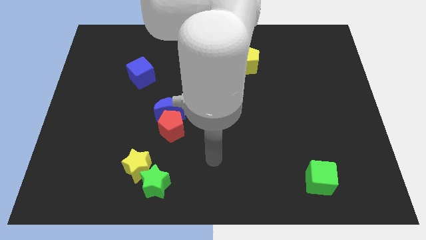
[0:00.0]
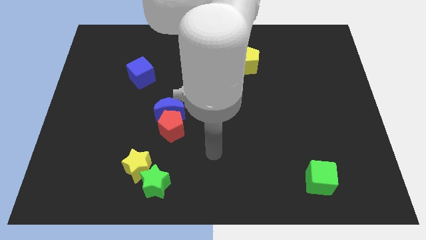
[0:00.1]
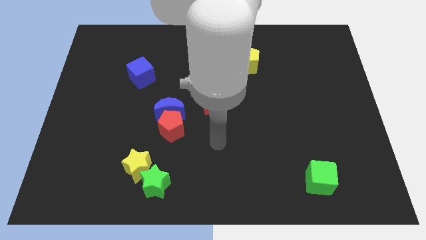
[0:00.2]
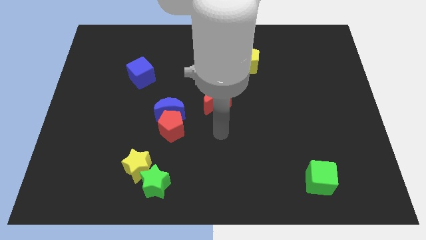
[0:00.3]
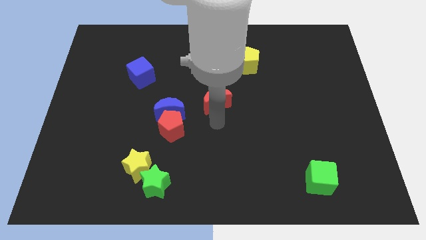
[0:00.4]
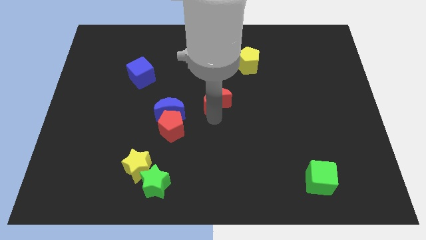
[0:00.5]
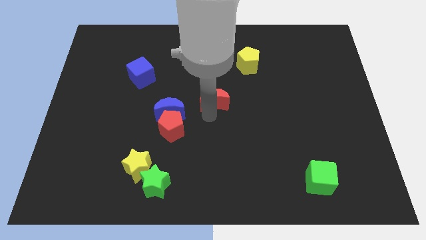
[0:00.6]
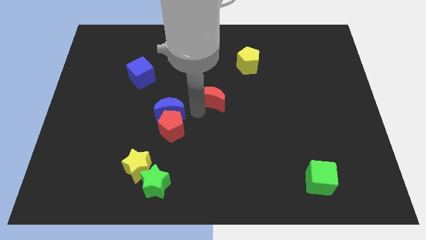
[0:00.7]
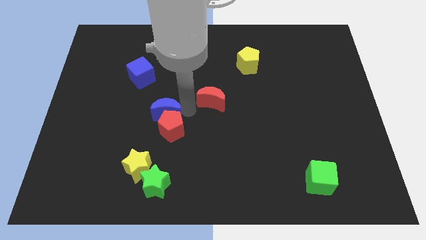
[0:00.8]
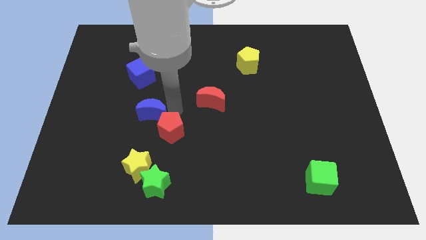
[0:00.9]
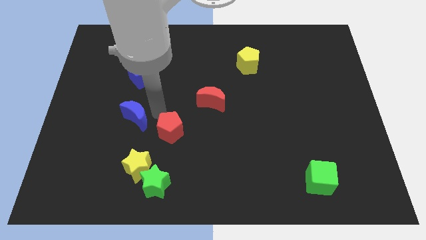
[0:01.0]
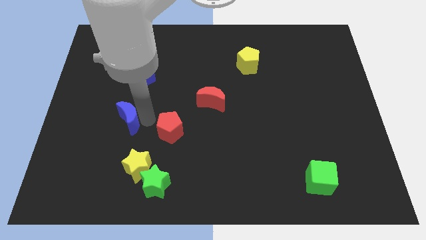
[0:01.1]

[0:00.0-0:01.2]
separate the red pentagon from the blue moon

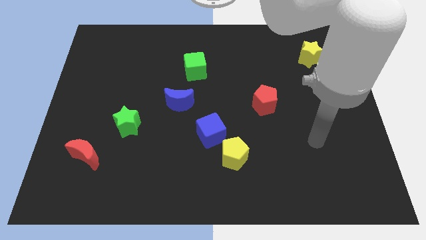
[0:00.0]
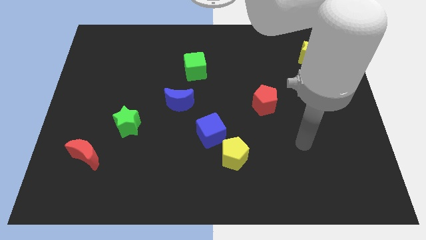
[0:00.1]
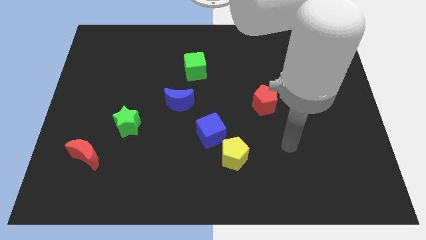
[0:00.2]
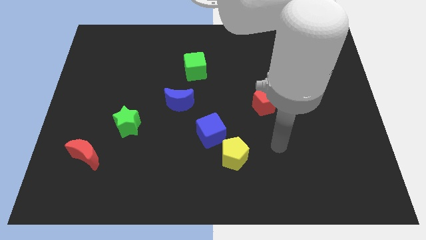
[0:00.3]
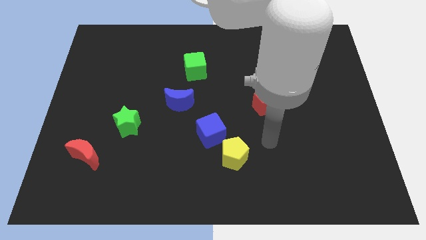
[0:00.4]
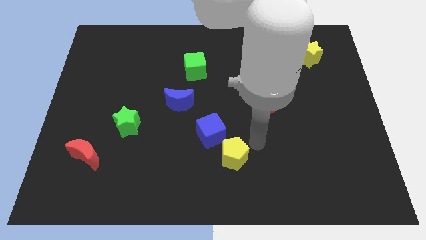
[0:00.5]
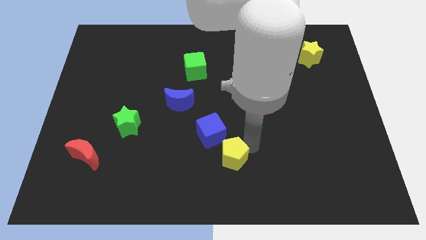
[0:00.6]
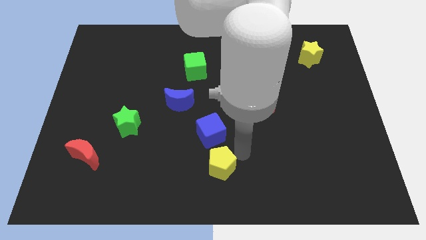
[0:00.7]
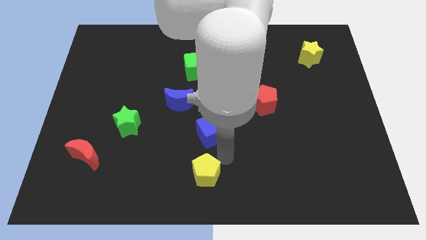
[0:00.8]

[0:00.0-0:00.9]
pull the blue cube apart from the yellow pentagon

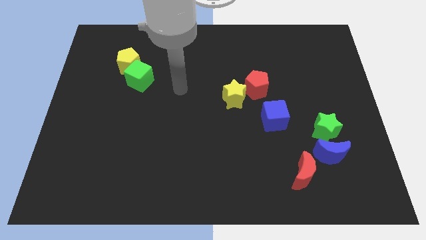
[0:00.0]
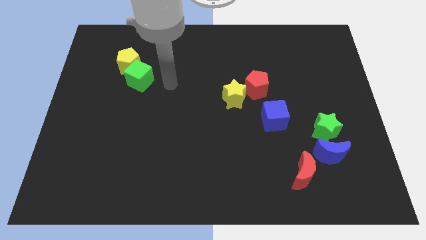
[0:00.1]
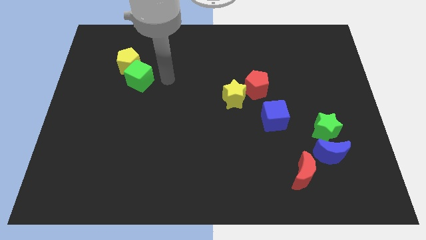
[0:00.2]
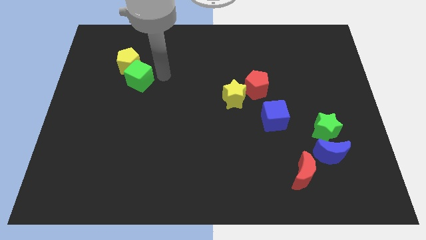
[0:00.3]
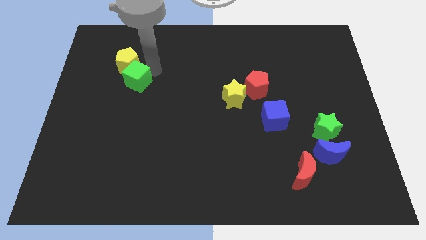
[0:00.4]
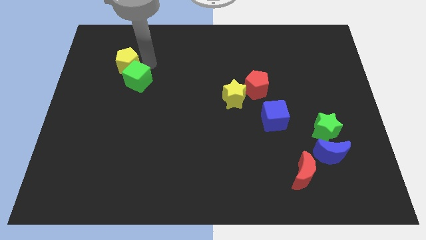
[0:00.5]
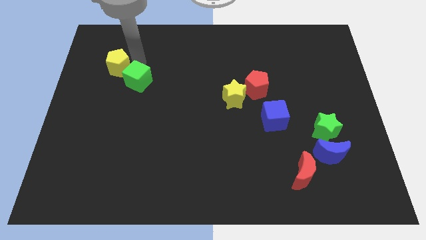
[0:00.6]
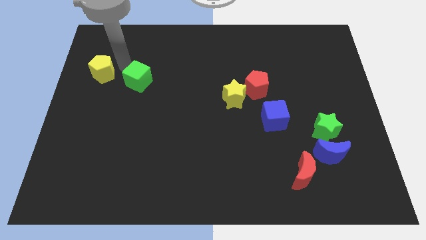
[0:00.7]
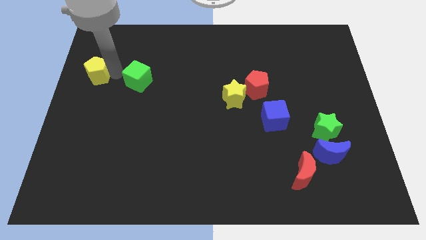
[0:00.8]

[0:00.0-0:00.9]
separate the green cube from the yellow pentagon

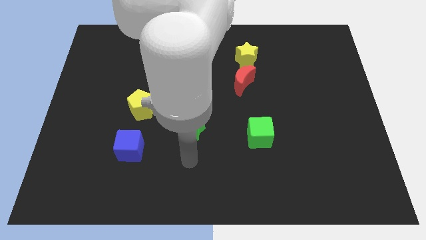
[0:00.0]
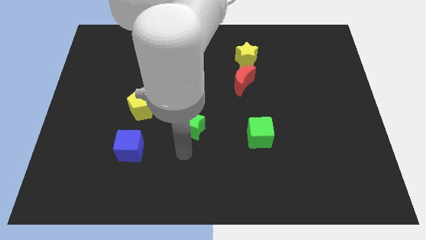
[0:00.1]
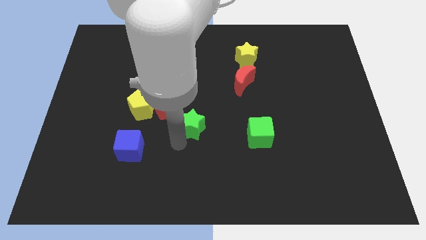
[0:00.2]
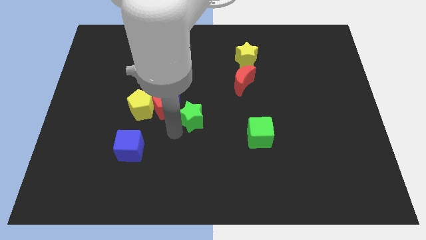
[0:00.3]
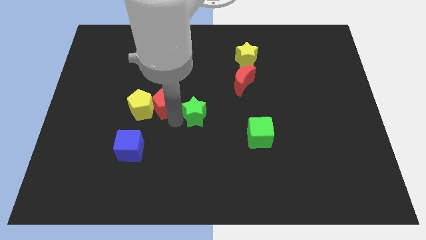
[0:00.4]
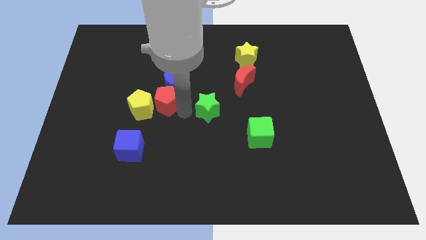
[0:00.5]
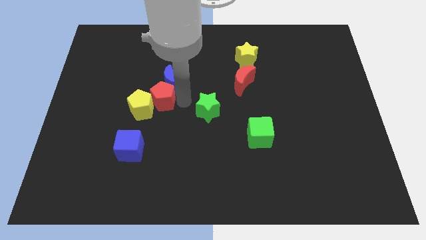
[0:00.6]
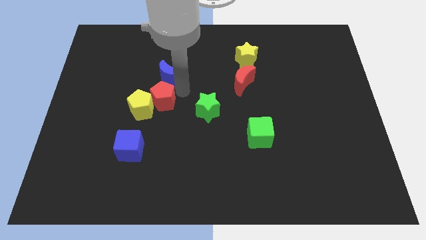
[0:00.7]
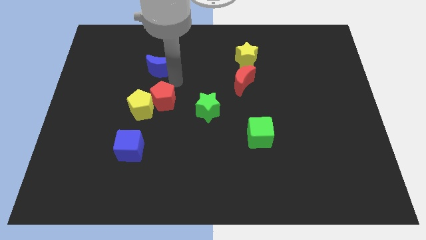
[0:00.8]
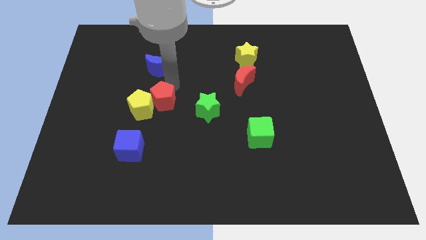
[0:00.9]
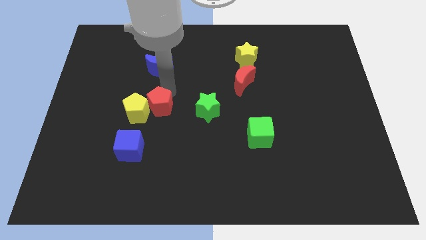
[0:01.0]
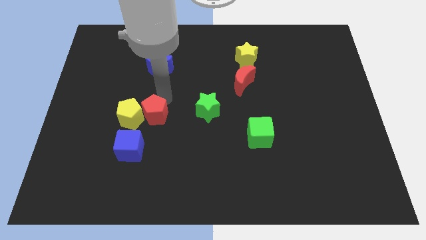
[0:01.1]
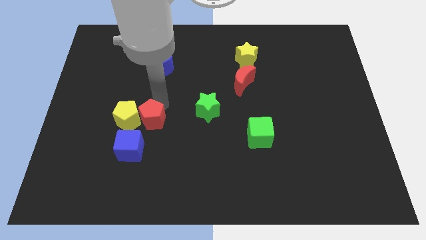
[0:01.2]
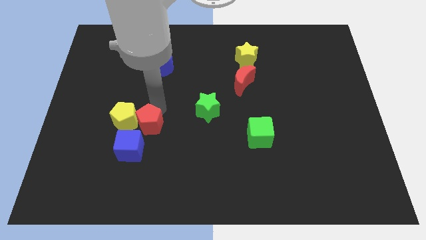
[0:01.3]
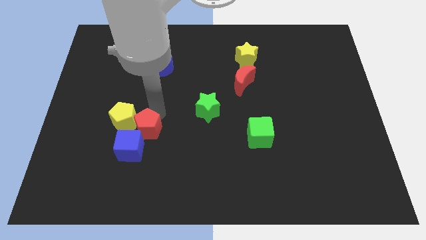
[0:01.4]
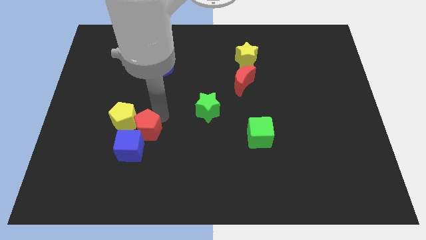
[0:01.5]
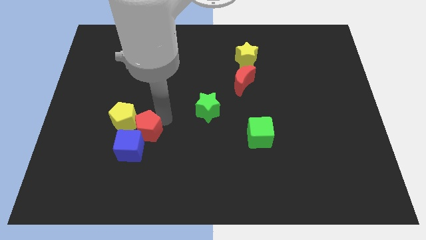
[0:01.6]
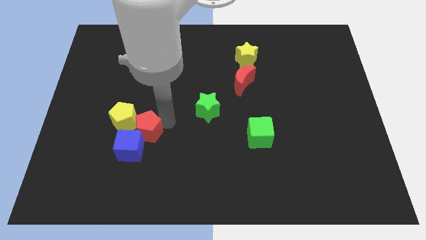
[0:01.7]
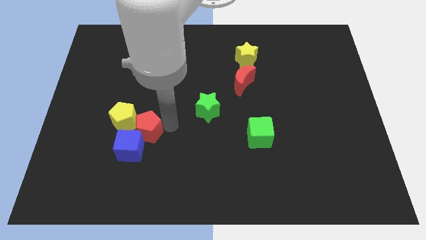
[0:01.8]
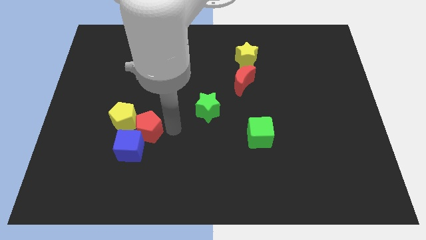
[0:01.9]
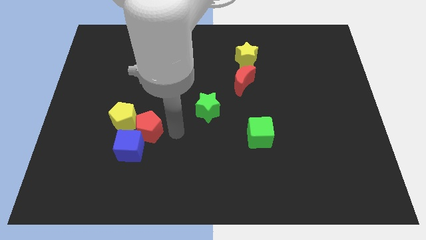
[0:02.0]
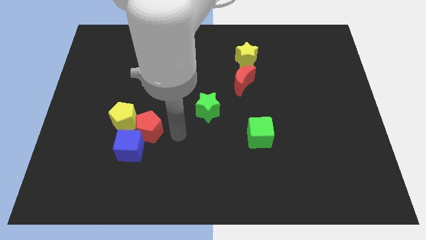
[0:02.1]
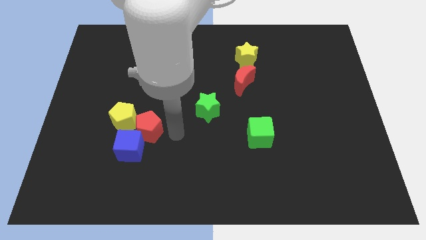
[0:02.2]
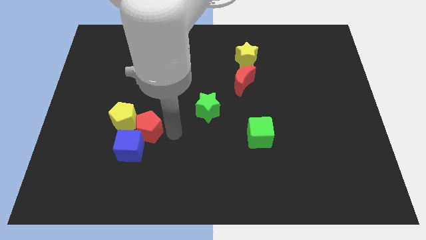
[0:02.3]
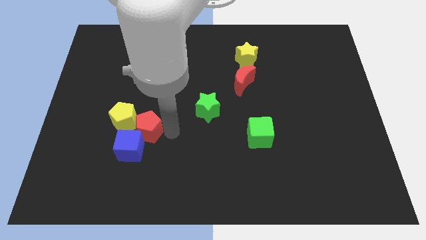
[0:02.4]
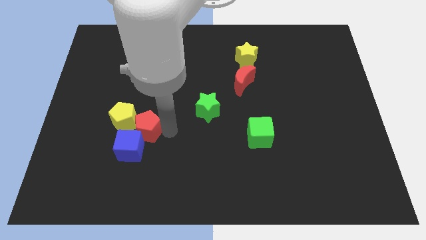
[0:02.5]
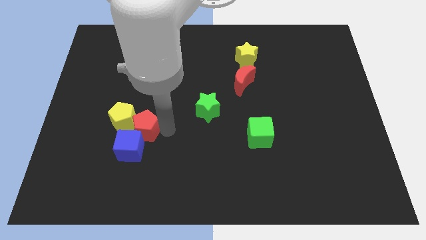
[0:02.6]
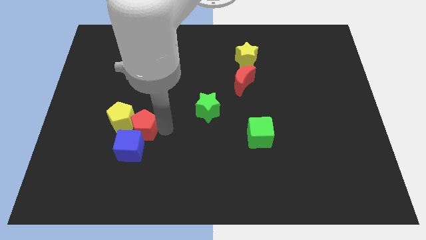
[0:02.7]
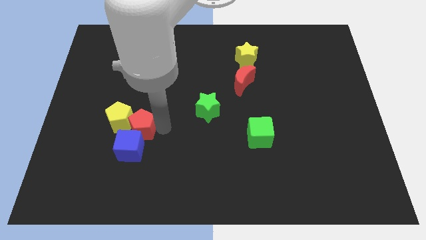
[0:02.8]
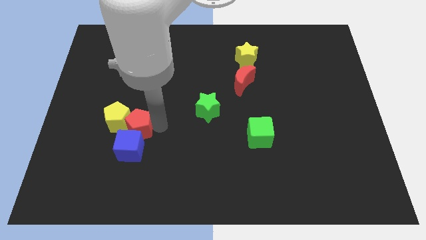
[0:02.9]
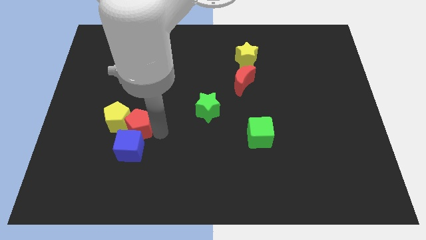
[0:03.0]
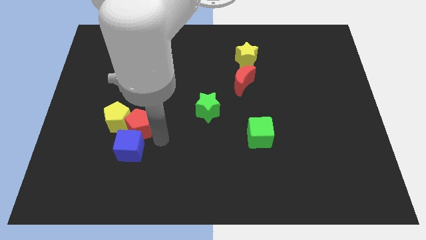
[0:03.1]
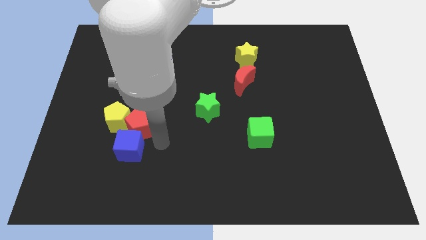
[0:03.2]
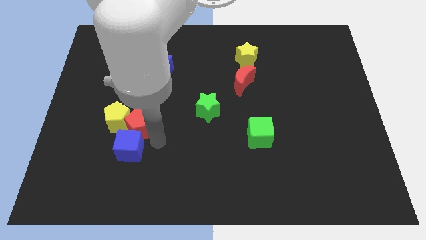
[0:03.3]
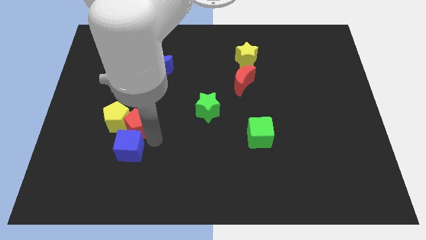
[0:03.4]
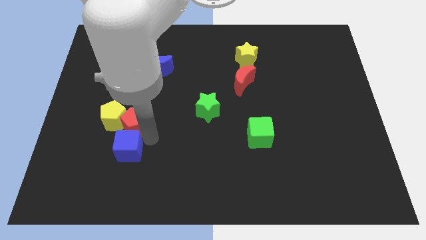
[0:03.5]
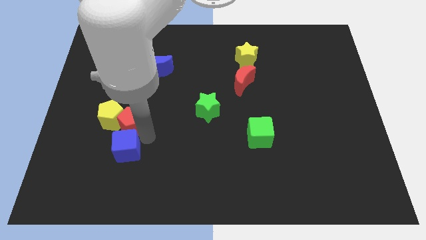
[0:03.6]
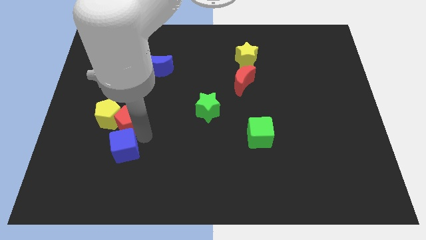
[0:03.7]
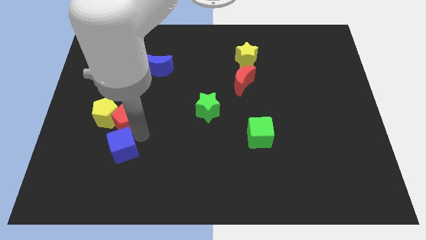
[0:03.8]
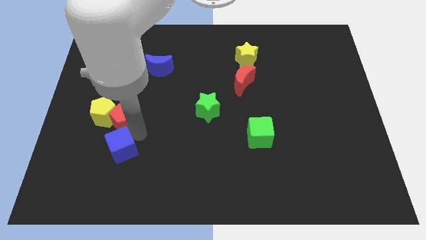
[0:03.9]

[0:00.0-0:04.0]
separate the red pentagon from the blue moon, yellow pentagon, and green star

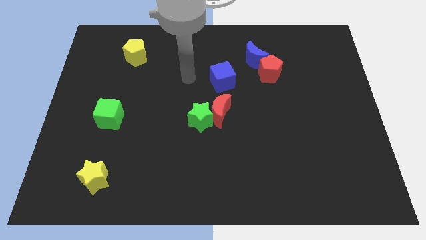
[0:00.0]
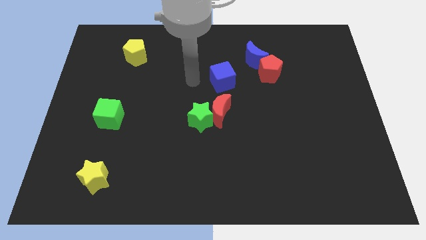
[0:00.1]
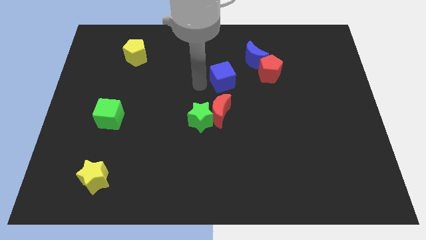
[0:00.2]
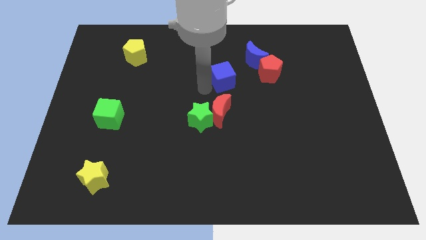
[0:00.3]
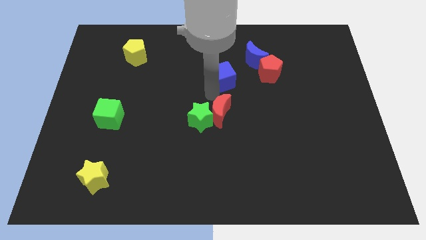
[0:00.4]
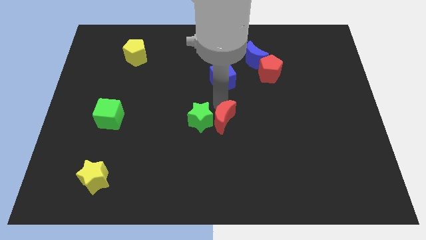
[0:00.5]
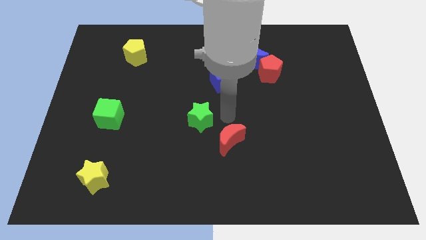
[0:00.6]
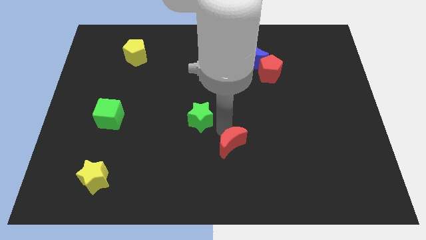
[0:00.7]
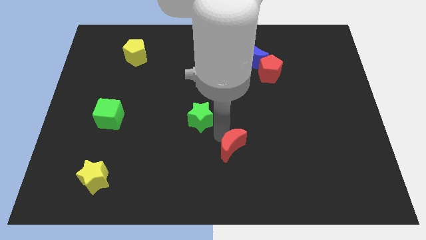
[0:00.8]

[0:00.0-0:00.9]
pull the green star apart from the red moon

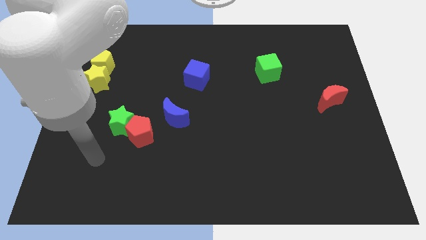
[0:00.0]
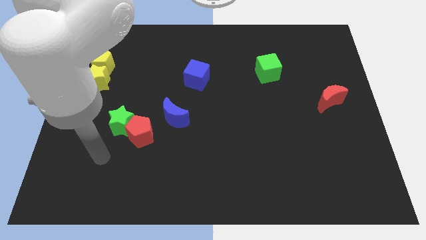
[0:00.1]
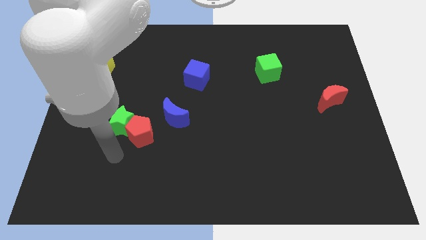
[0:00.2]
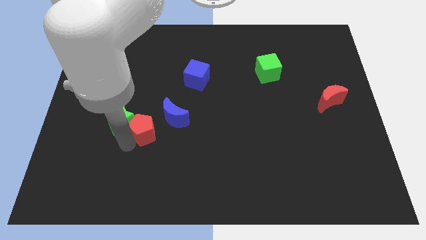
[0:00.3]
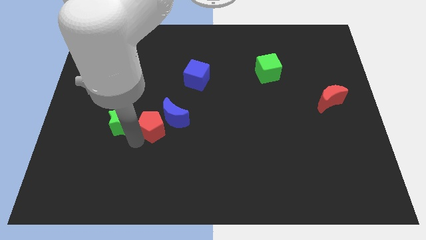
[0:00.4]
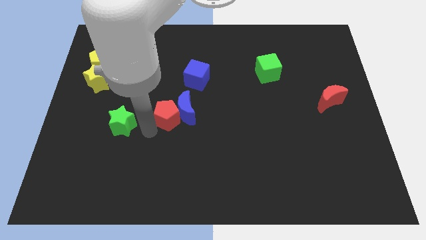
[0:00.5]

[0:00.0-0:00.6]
separate the green star from the red pentagon

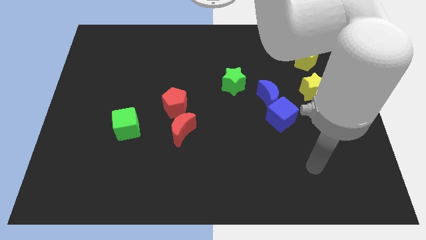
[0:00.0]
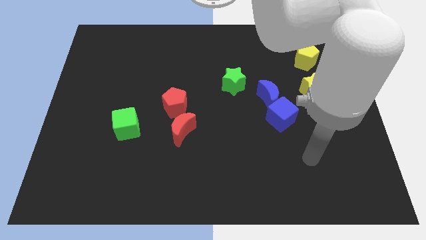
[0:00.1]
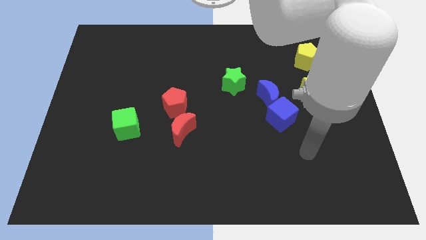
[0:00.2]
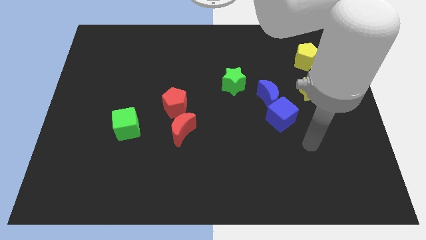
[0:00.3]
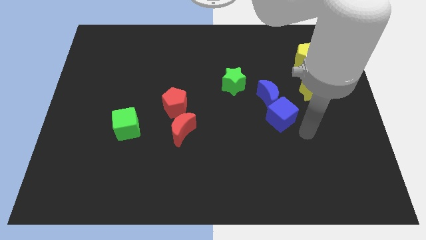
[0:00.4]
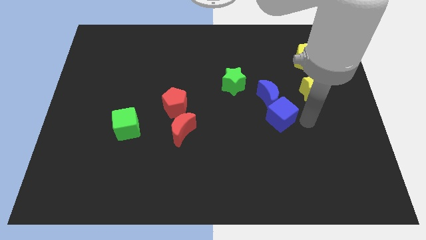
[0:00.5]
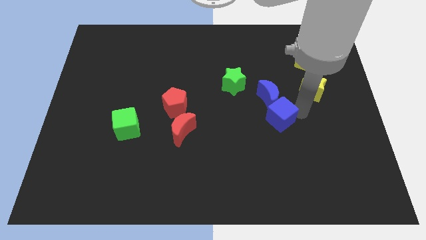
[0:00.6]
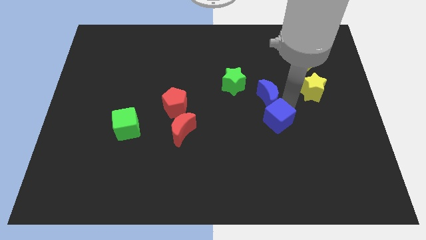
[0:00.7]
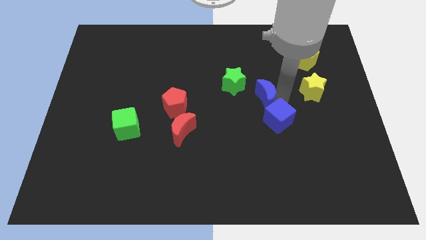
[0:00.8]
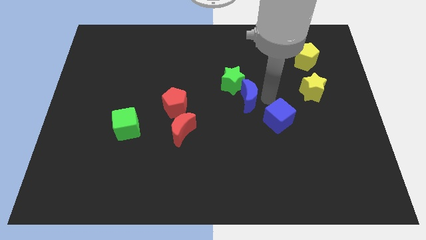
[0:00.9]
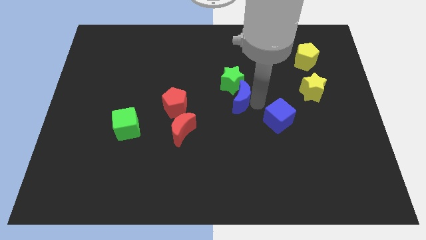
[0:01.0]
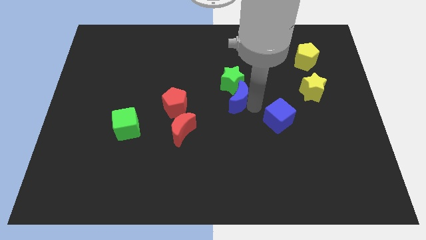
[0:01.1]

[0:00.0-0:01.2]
pull the blue cube apart from the blue moon
